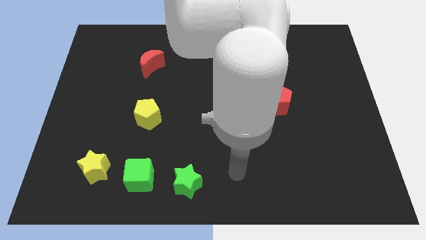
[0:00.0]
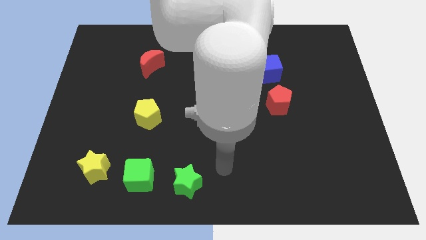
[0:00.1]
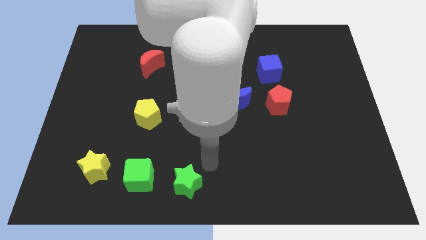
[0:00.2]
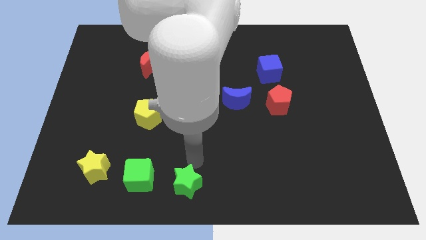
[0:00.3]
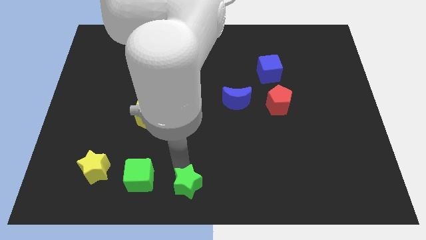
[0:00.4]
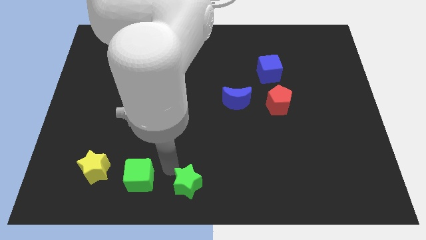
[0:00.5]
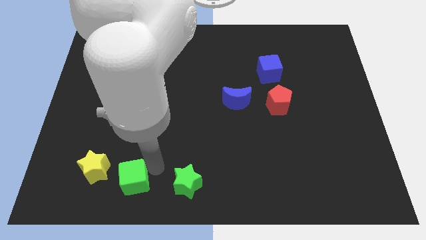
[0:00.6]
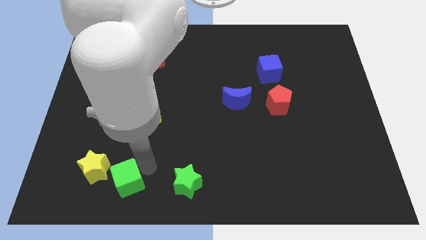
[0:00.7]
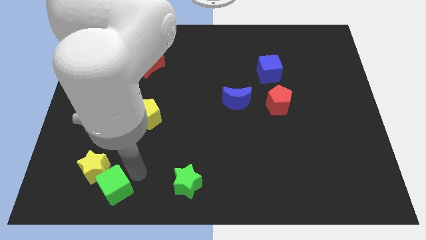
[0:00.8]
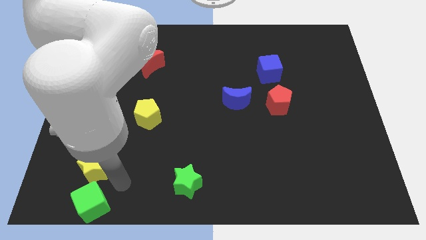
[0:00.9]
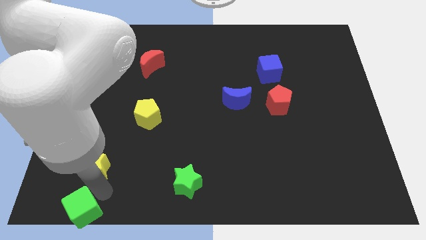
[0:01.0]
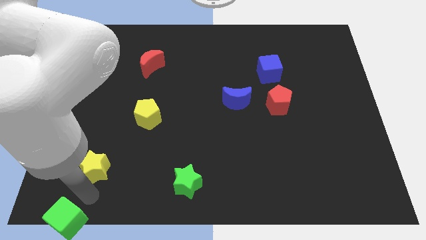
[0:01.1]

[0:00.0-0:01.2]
separate the yellow star from the green cube

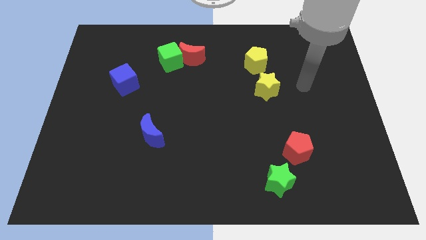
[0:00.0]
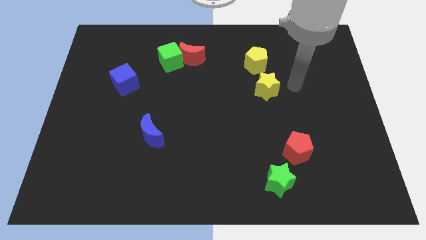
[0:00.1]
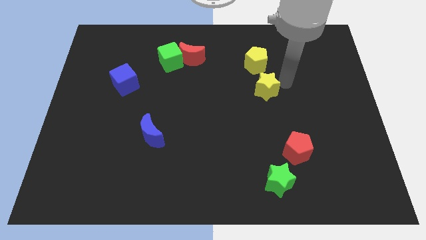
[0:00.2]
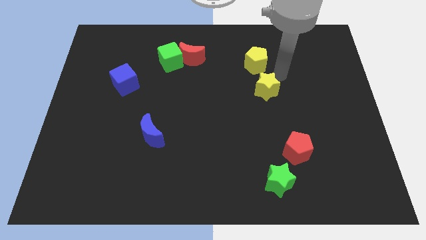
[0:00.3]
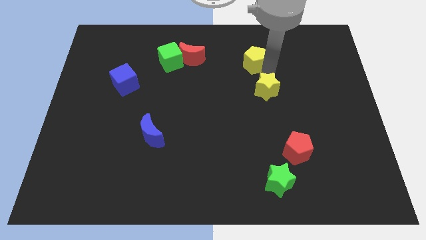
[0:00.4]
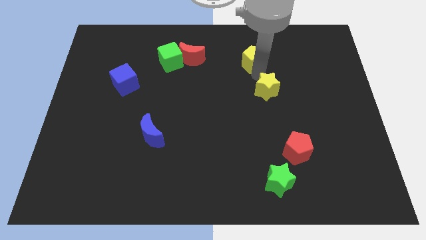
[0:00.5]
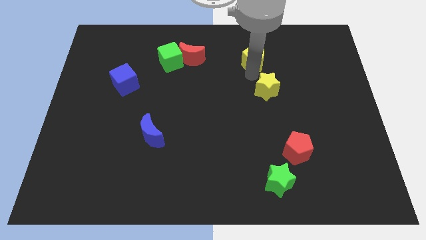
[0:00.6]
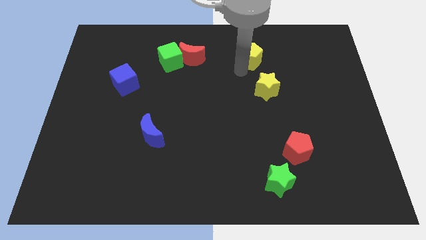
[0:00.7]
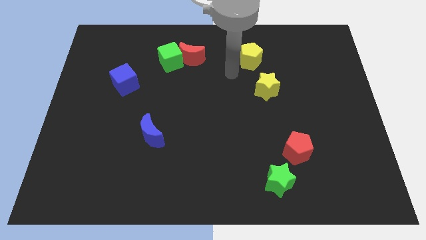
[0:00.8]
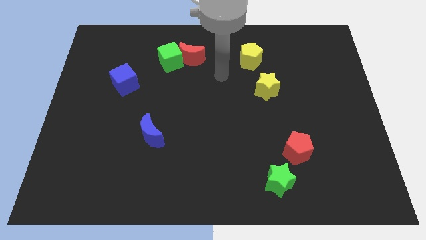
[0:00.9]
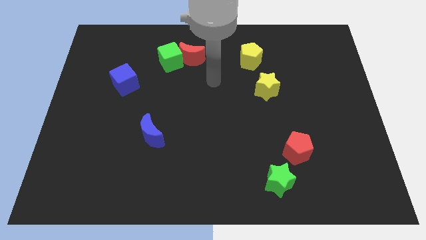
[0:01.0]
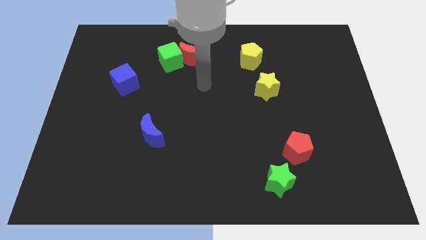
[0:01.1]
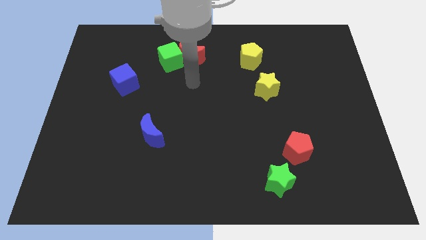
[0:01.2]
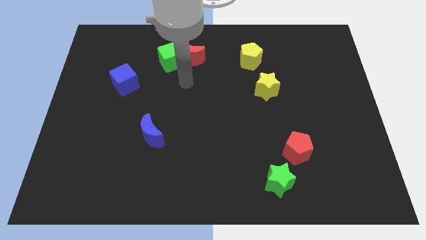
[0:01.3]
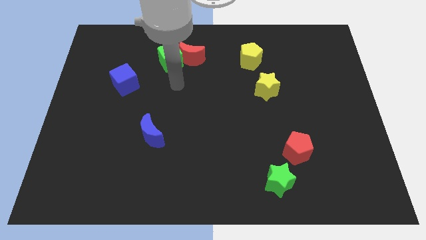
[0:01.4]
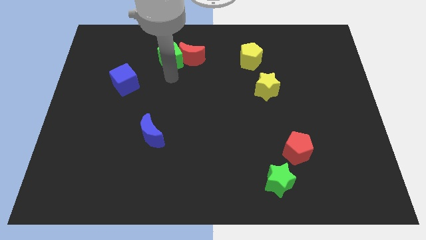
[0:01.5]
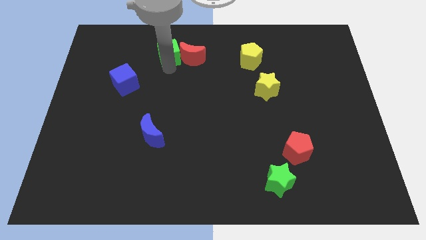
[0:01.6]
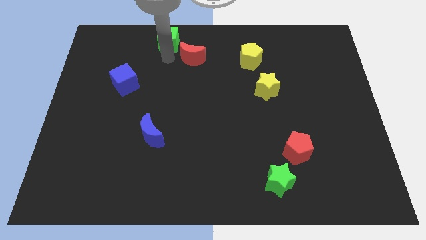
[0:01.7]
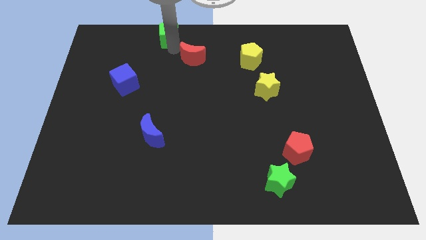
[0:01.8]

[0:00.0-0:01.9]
pull the red moon apart from the green cube

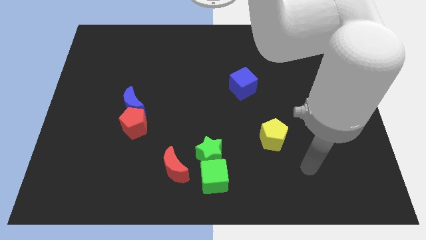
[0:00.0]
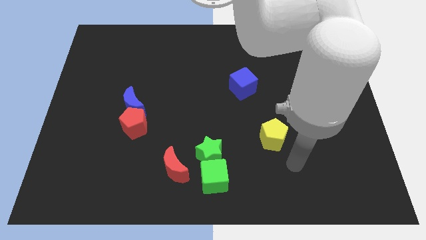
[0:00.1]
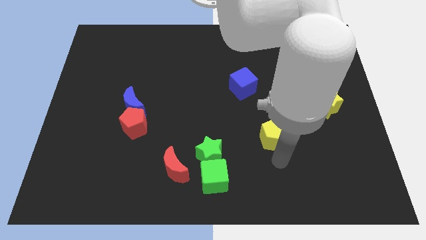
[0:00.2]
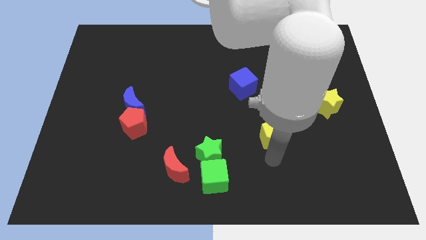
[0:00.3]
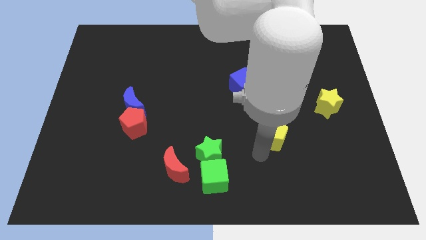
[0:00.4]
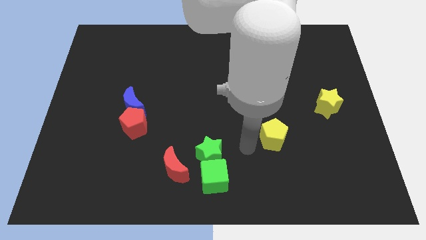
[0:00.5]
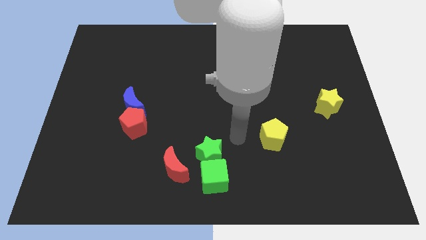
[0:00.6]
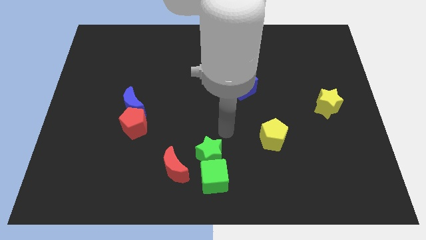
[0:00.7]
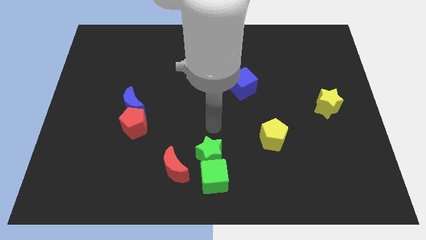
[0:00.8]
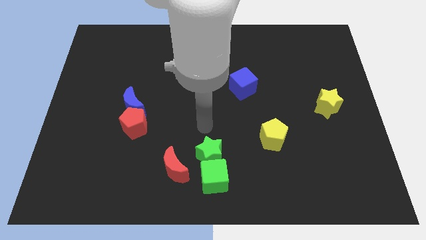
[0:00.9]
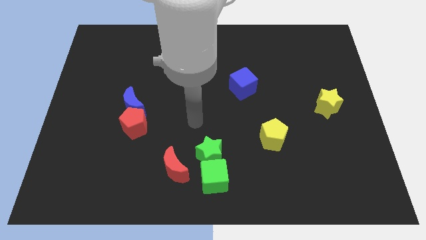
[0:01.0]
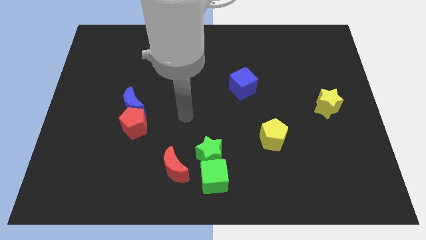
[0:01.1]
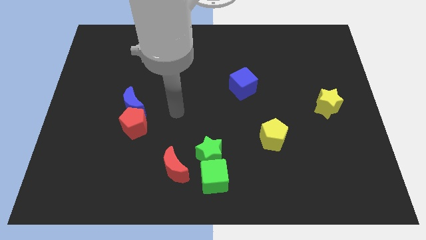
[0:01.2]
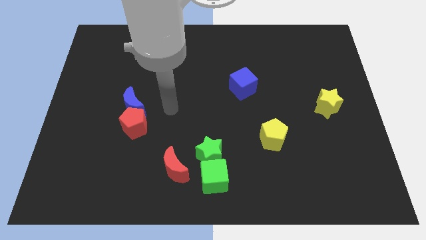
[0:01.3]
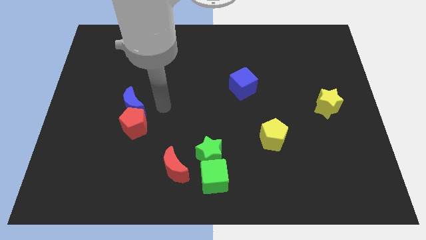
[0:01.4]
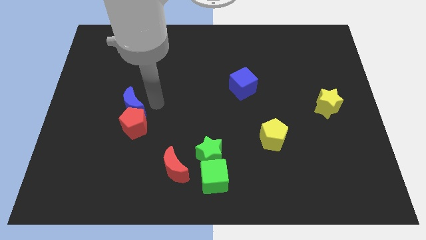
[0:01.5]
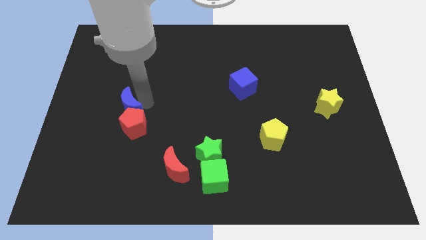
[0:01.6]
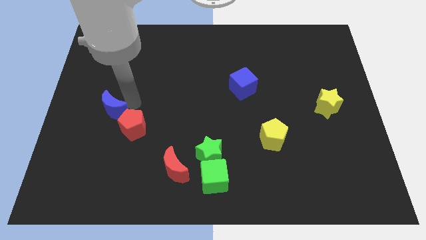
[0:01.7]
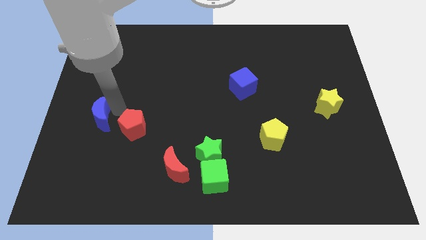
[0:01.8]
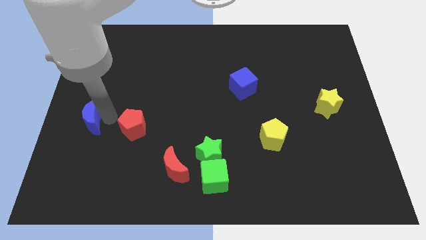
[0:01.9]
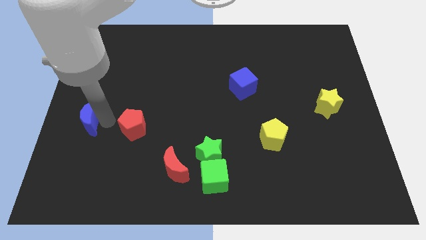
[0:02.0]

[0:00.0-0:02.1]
pull the red pentagon apart from the blue moon

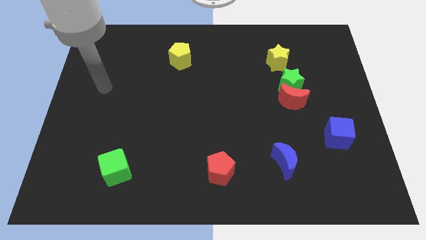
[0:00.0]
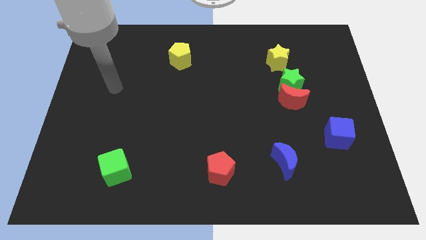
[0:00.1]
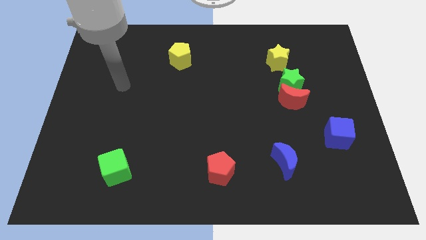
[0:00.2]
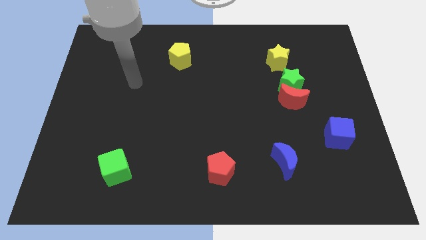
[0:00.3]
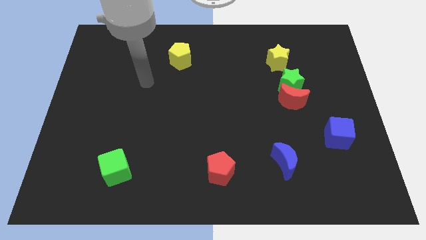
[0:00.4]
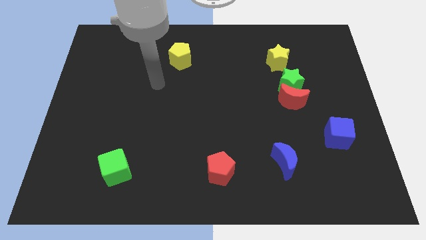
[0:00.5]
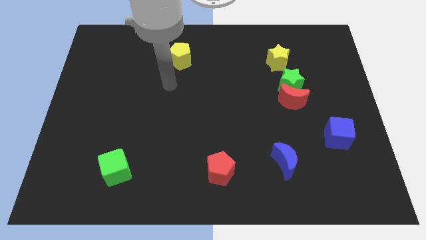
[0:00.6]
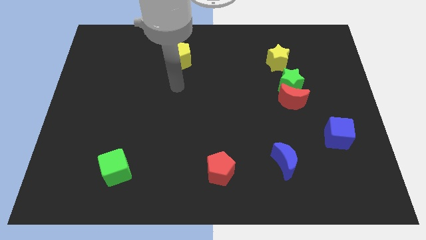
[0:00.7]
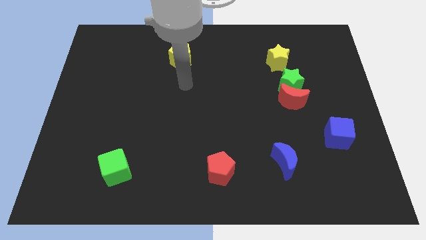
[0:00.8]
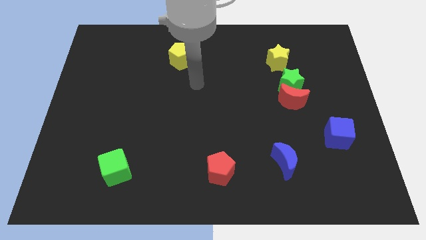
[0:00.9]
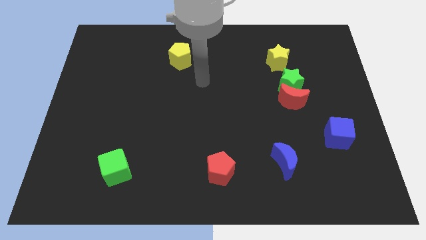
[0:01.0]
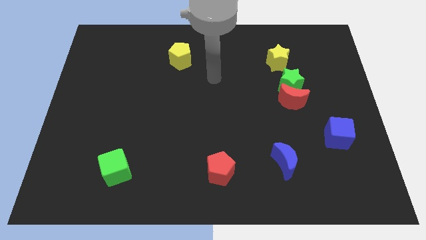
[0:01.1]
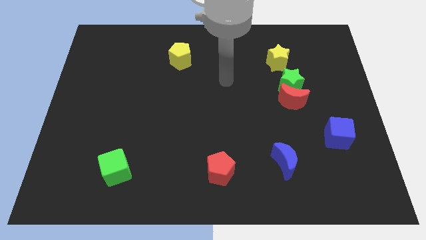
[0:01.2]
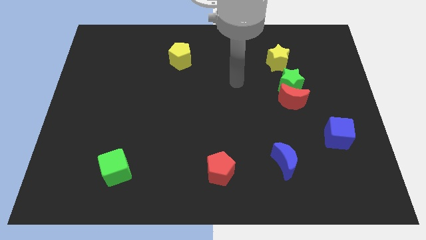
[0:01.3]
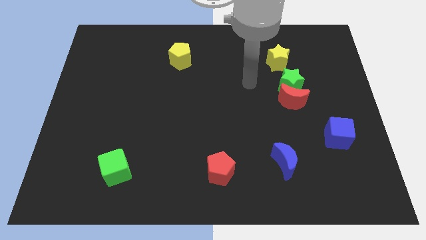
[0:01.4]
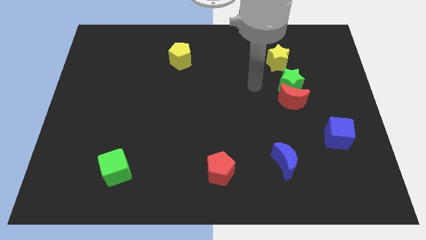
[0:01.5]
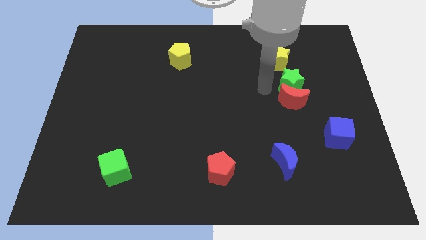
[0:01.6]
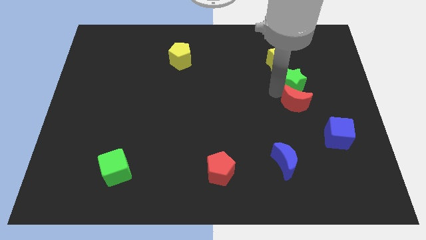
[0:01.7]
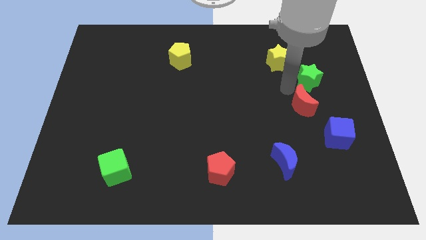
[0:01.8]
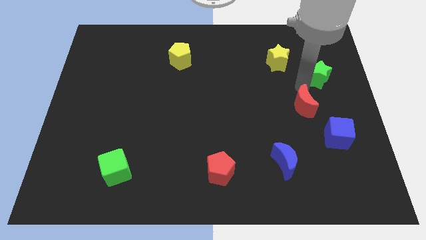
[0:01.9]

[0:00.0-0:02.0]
pull the red moon apart from the green star

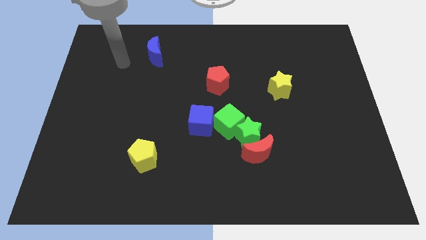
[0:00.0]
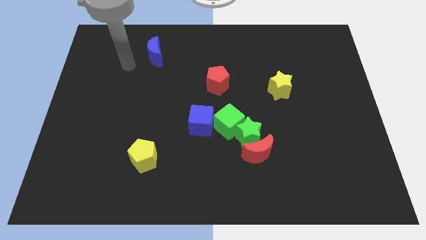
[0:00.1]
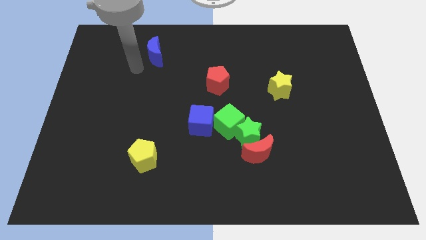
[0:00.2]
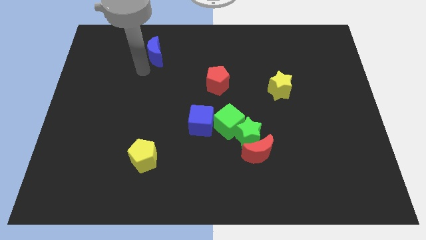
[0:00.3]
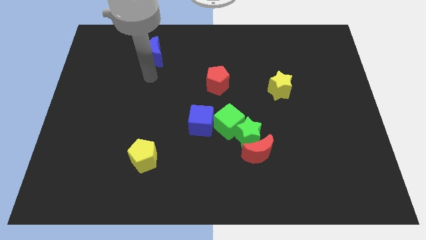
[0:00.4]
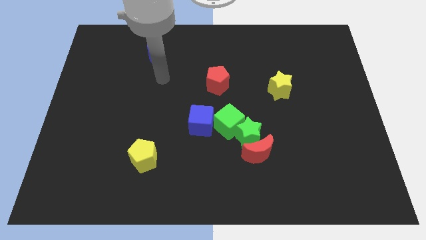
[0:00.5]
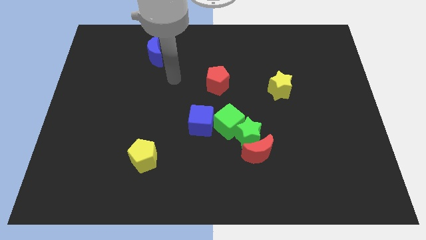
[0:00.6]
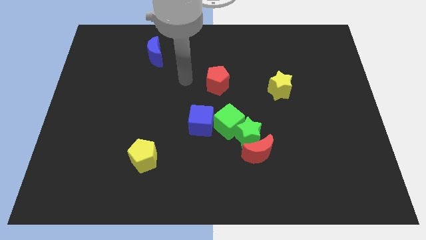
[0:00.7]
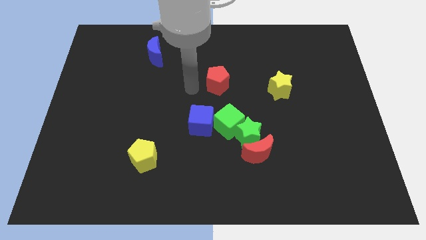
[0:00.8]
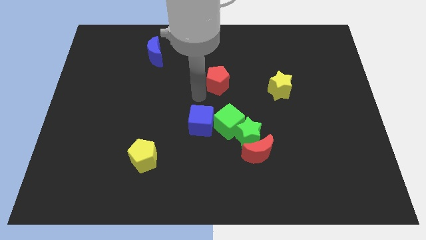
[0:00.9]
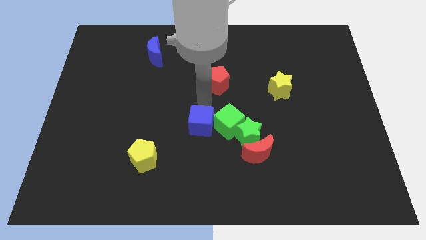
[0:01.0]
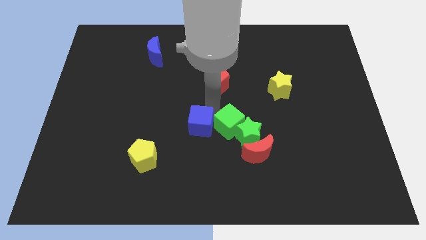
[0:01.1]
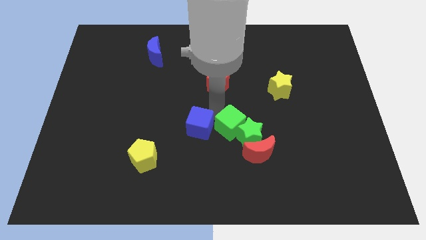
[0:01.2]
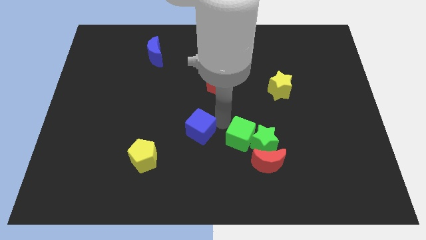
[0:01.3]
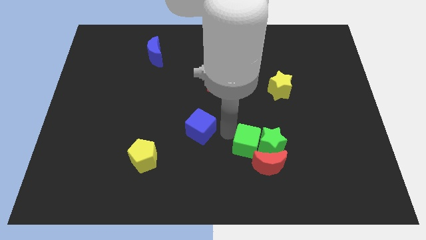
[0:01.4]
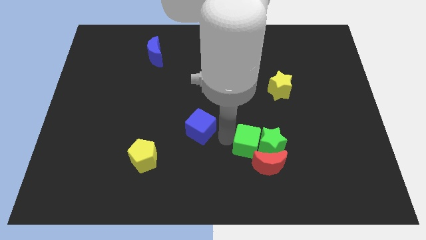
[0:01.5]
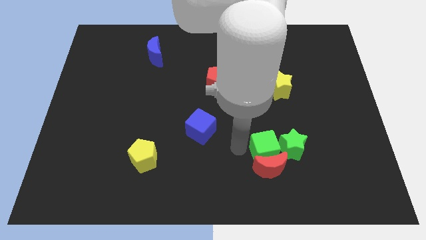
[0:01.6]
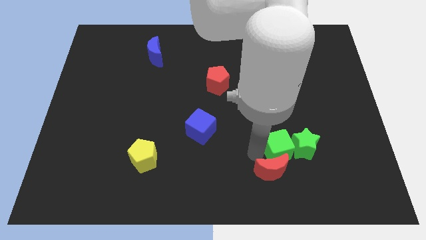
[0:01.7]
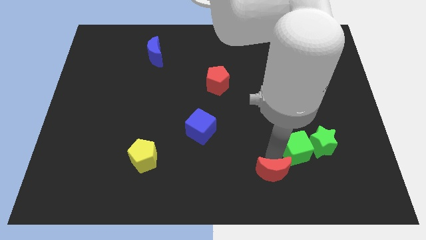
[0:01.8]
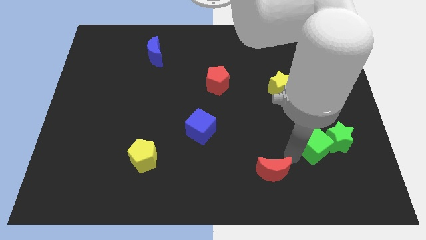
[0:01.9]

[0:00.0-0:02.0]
pull the green star apart from the red moon and green cube
